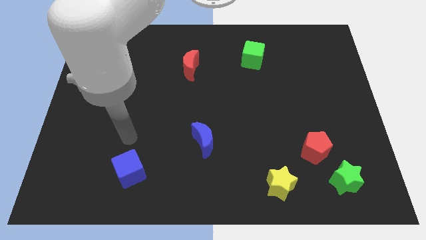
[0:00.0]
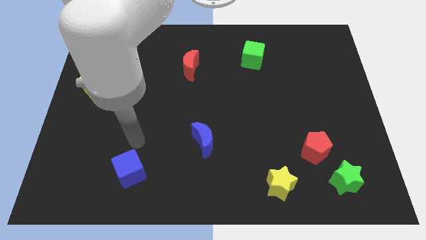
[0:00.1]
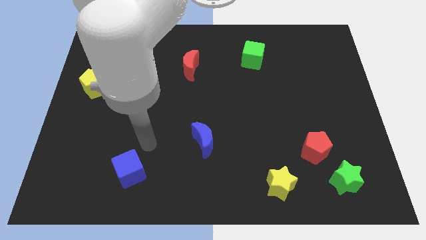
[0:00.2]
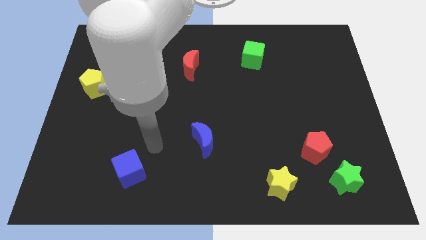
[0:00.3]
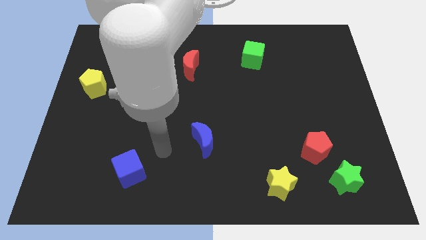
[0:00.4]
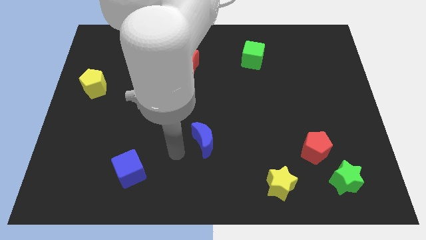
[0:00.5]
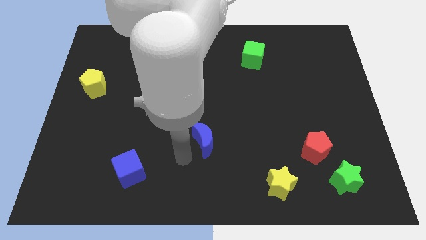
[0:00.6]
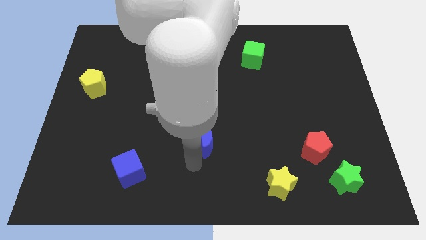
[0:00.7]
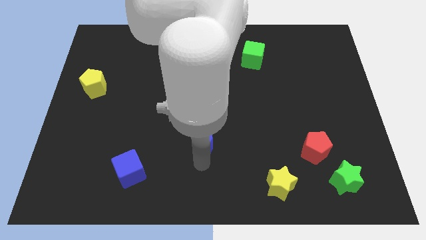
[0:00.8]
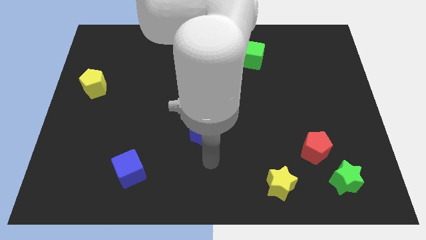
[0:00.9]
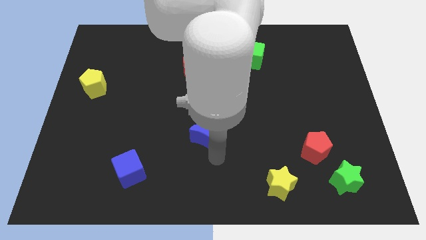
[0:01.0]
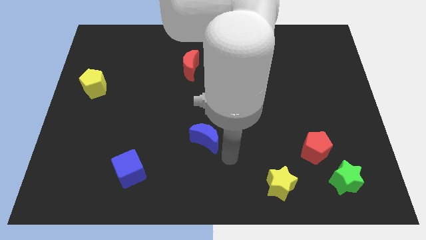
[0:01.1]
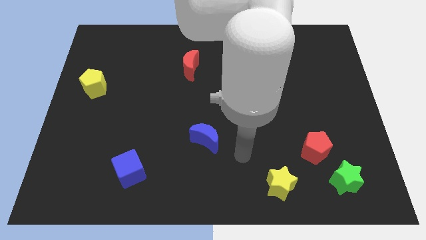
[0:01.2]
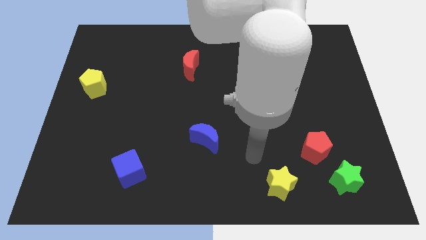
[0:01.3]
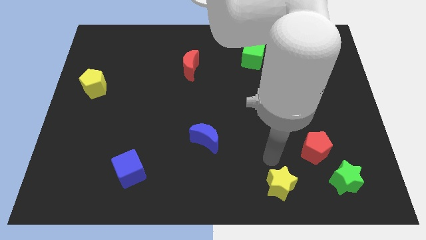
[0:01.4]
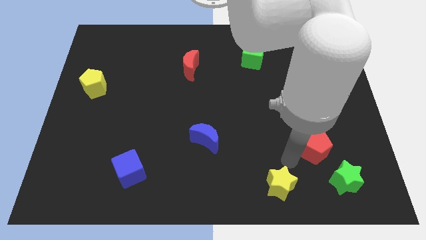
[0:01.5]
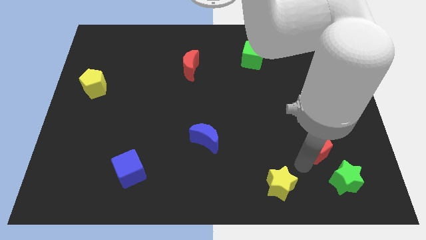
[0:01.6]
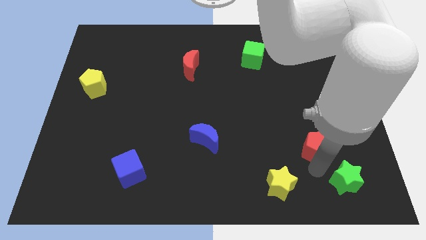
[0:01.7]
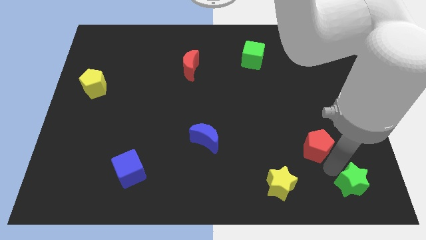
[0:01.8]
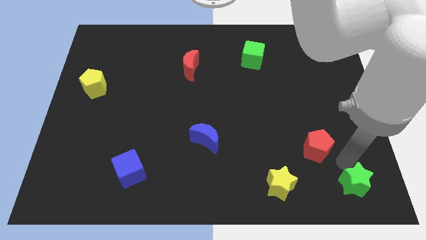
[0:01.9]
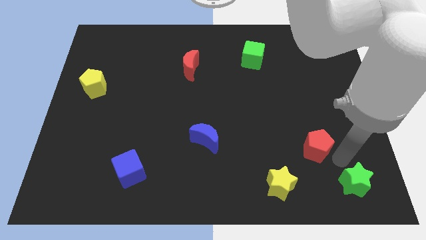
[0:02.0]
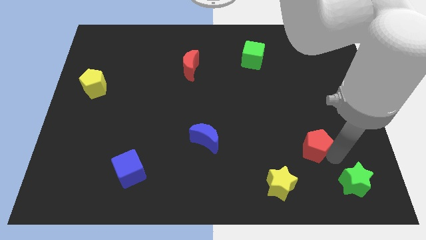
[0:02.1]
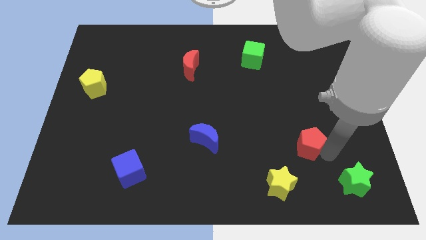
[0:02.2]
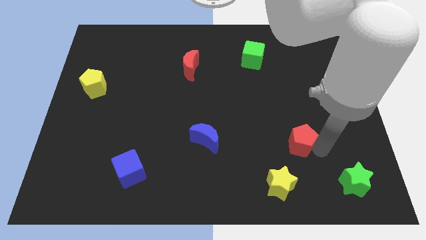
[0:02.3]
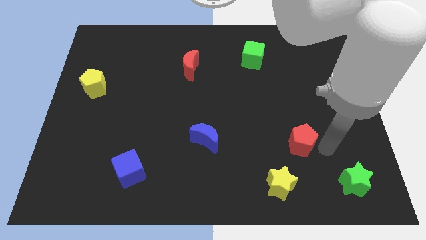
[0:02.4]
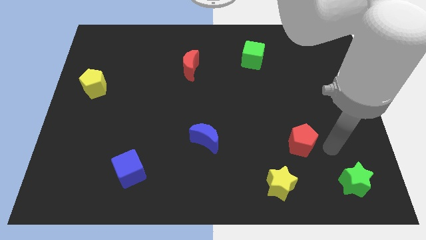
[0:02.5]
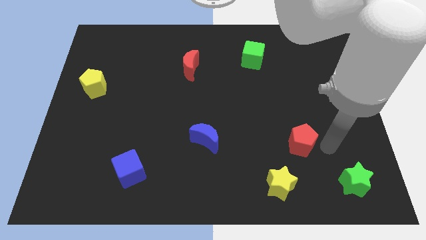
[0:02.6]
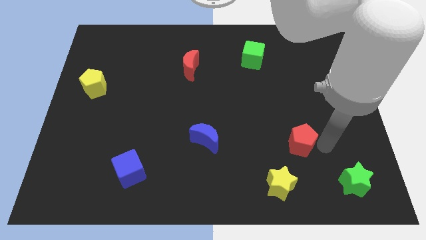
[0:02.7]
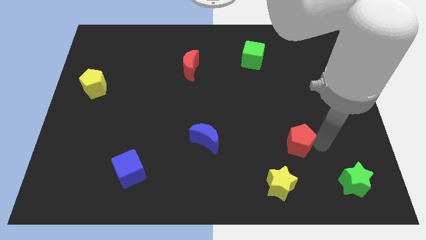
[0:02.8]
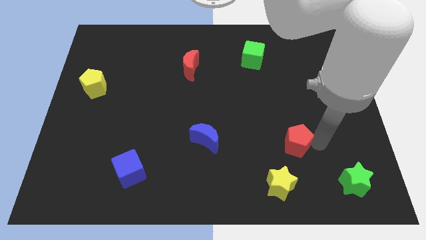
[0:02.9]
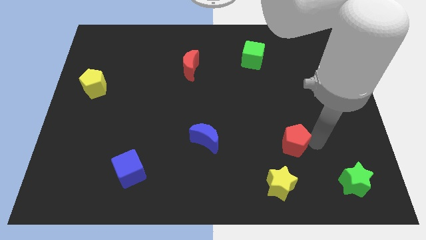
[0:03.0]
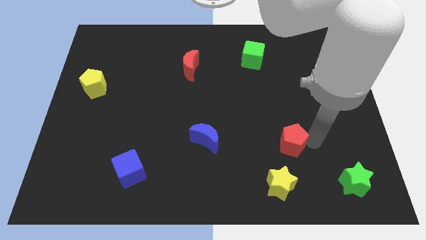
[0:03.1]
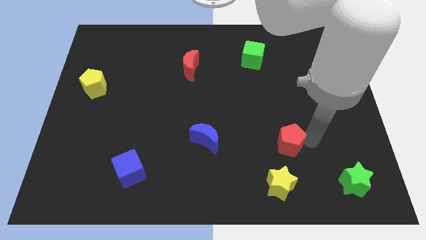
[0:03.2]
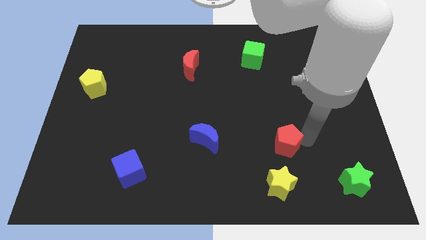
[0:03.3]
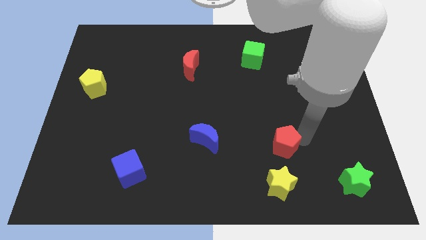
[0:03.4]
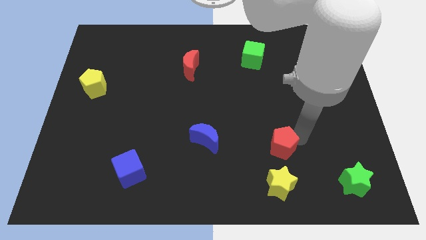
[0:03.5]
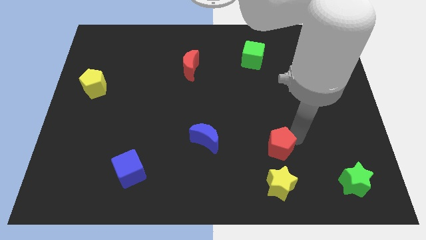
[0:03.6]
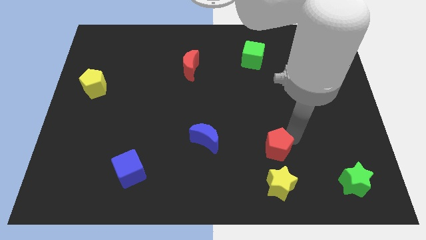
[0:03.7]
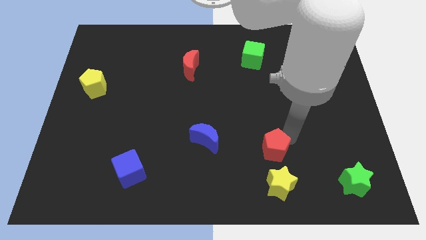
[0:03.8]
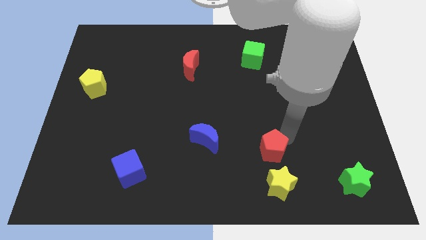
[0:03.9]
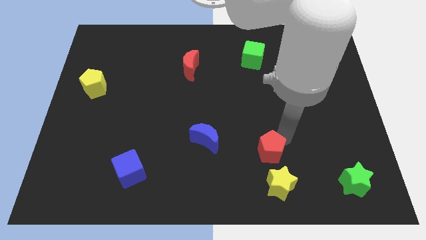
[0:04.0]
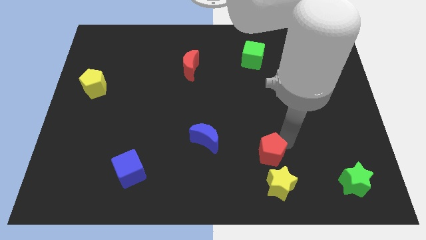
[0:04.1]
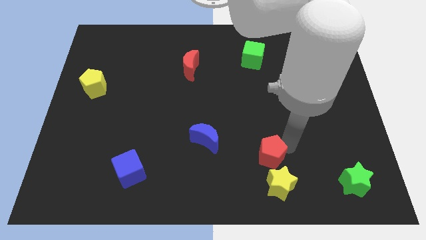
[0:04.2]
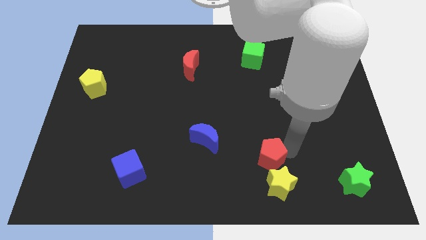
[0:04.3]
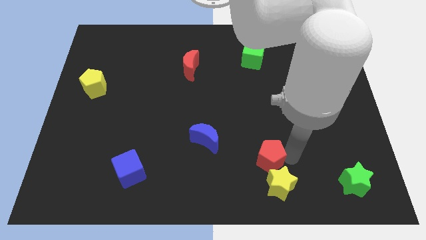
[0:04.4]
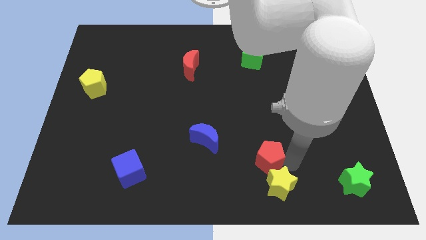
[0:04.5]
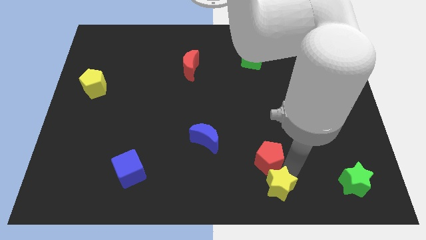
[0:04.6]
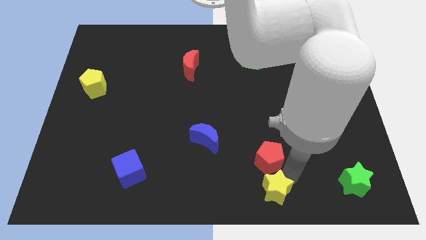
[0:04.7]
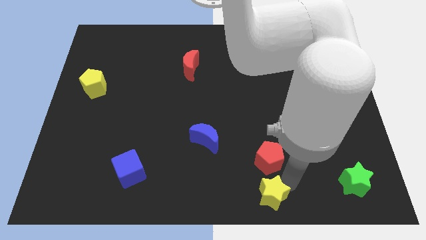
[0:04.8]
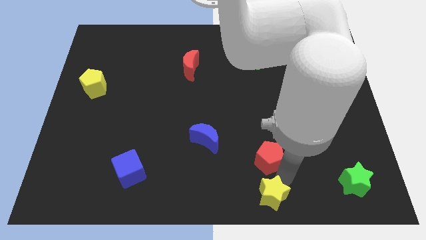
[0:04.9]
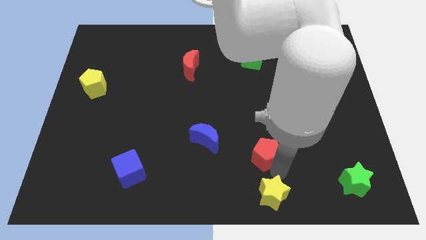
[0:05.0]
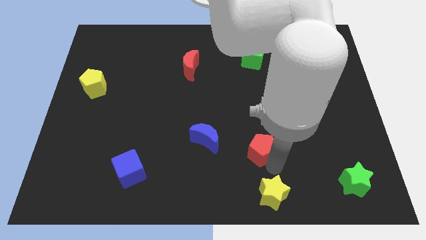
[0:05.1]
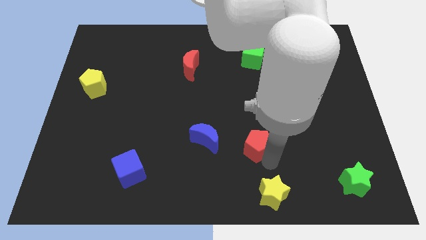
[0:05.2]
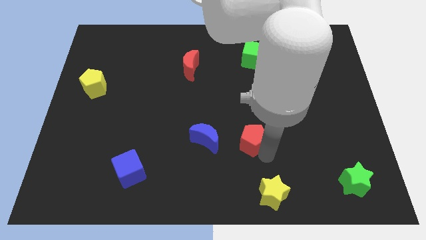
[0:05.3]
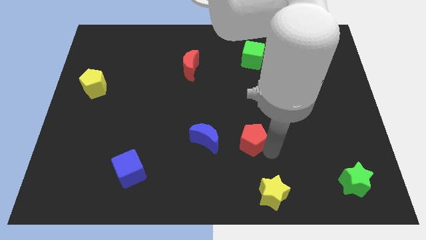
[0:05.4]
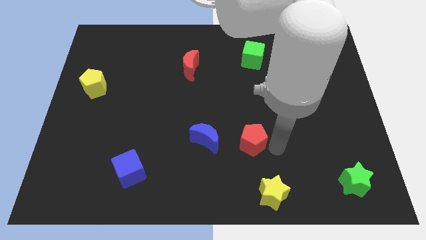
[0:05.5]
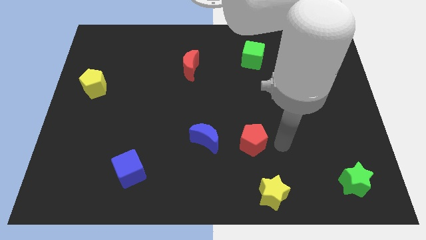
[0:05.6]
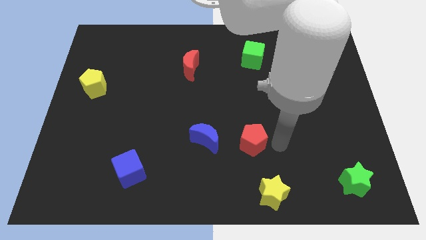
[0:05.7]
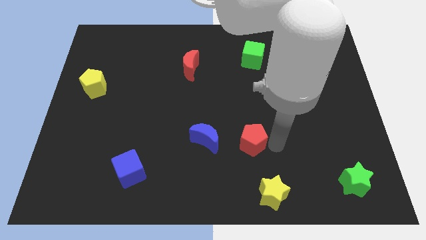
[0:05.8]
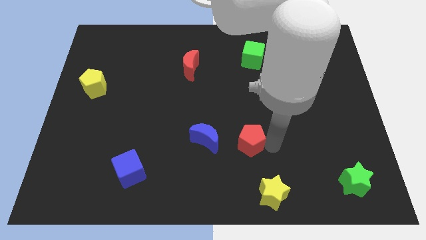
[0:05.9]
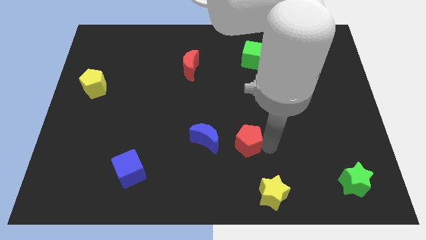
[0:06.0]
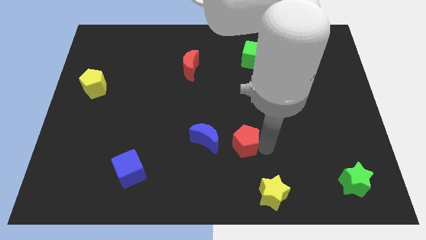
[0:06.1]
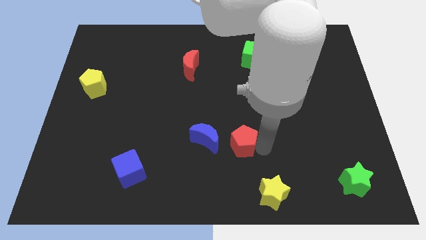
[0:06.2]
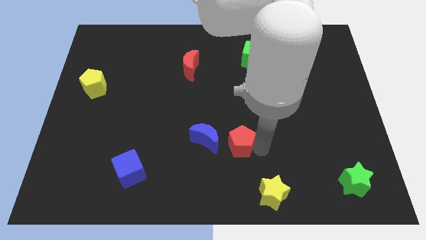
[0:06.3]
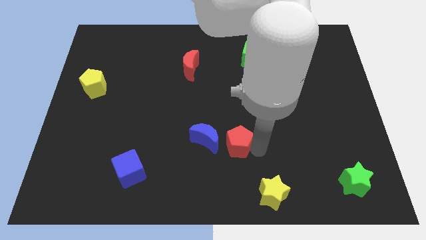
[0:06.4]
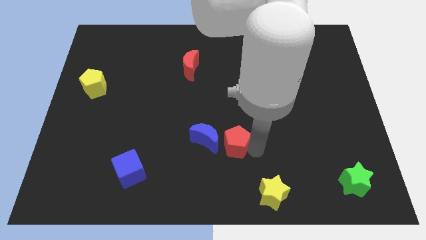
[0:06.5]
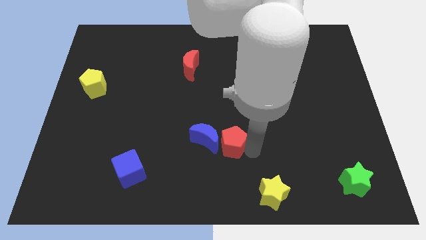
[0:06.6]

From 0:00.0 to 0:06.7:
push the red pentagon next to the blue moon
